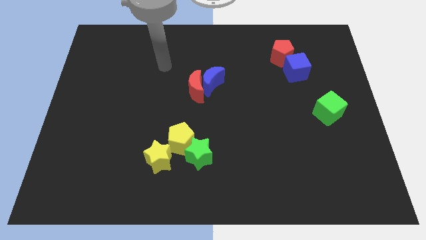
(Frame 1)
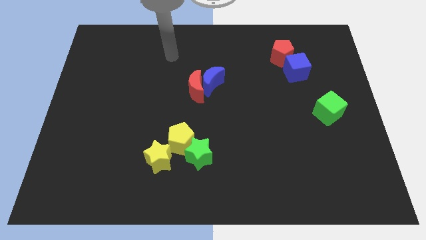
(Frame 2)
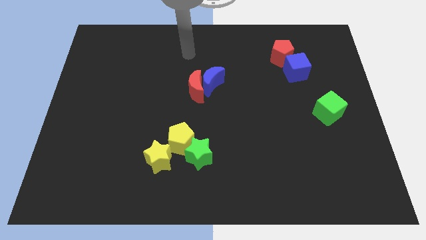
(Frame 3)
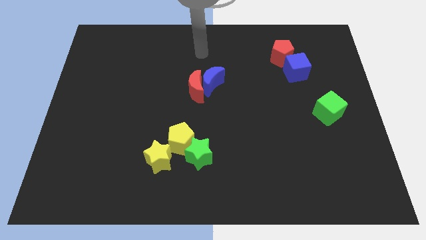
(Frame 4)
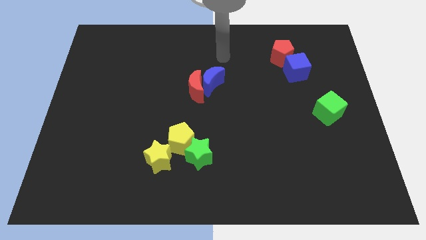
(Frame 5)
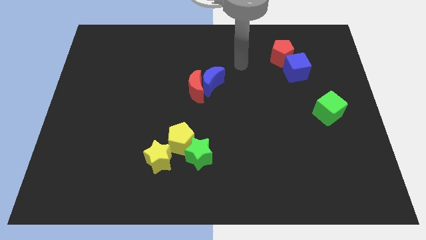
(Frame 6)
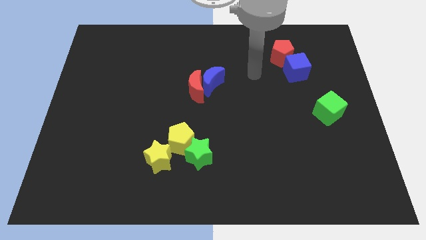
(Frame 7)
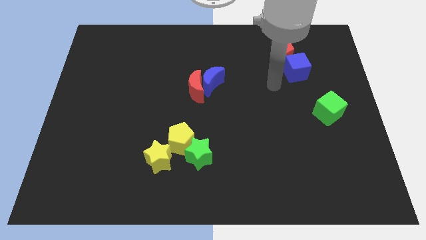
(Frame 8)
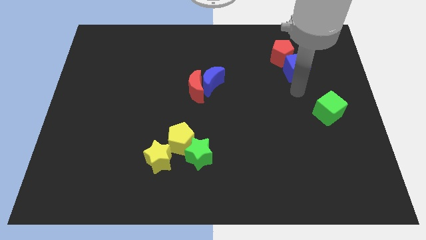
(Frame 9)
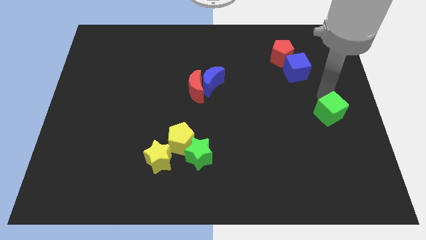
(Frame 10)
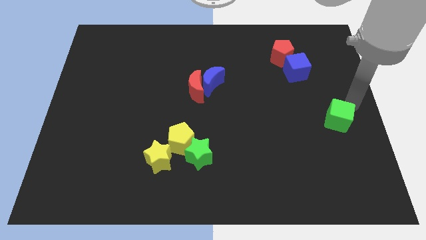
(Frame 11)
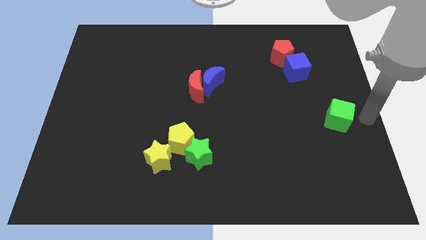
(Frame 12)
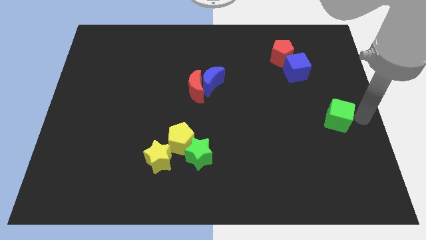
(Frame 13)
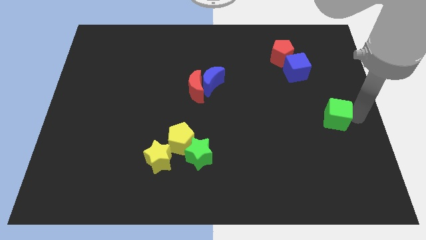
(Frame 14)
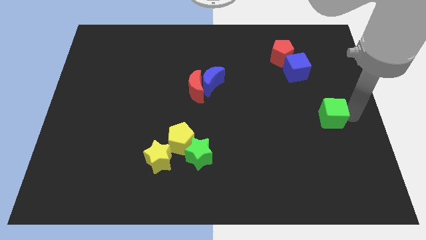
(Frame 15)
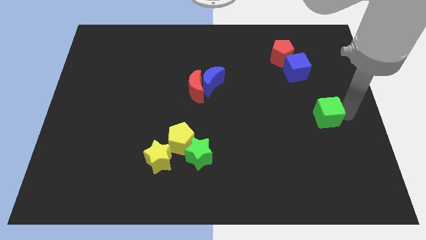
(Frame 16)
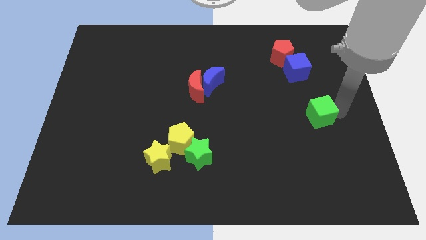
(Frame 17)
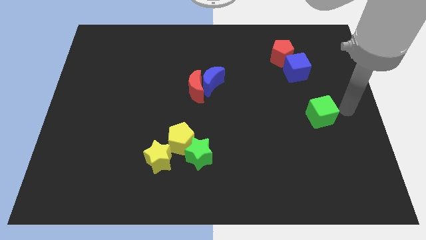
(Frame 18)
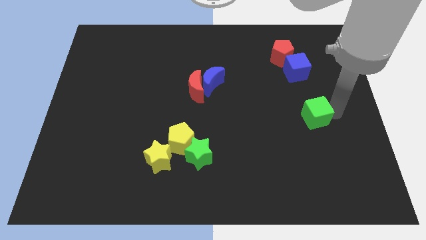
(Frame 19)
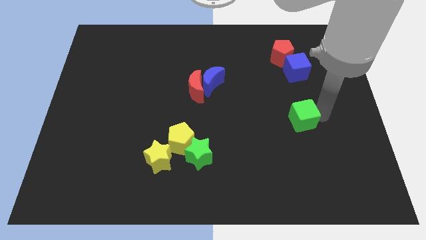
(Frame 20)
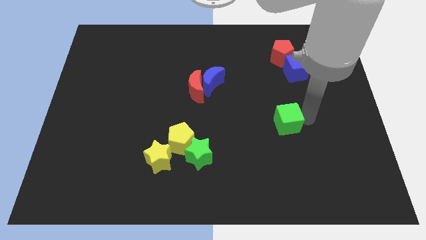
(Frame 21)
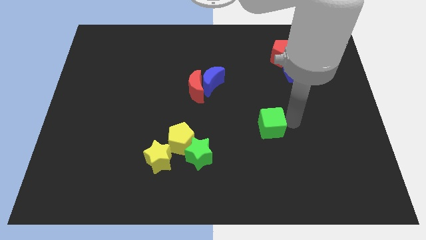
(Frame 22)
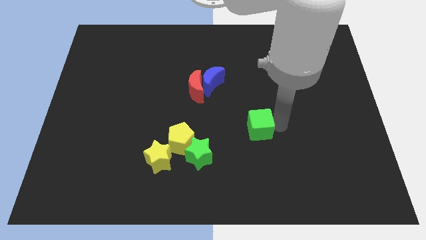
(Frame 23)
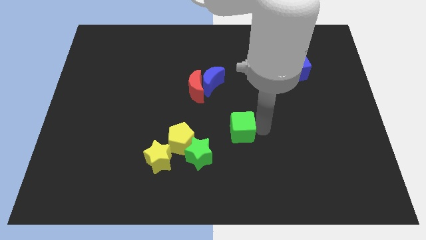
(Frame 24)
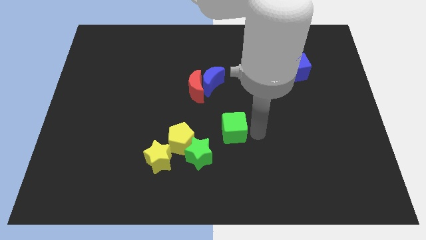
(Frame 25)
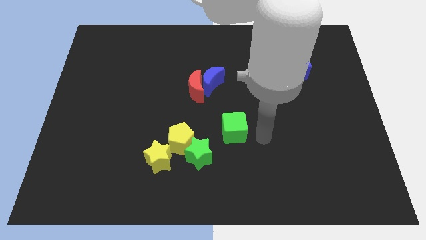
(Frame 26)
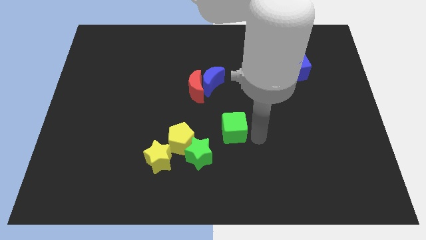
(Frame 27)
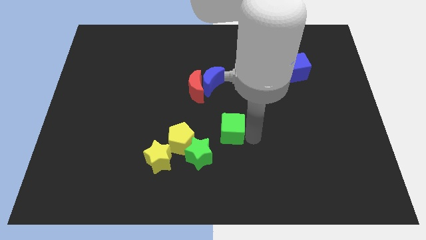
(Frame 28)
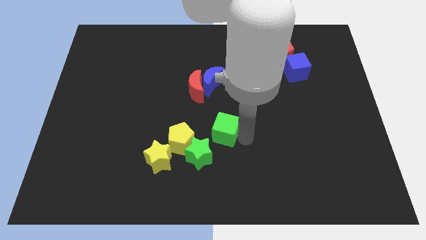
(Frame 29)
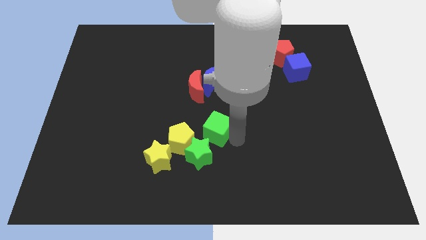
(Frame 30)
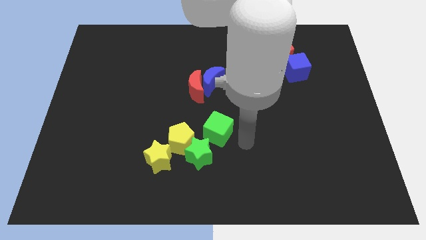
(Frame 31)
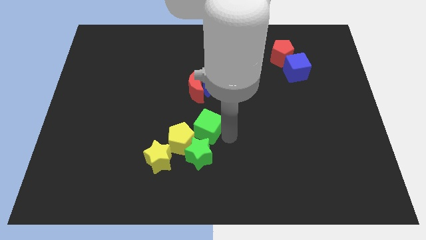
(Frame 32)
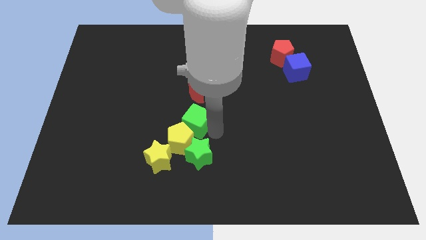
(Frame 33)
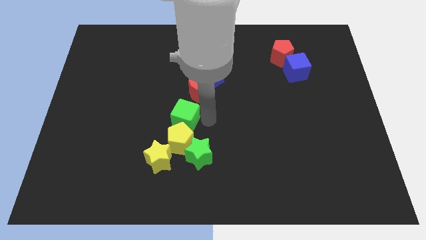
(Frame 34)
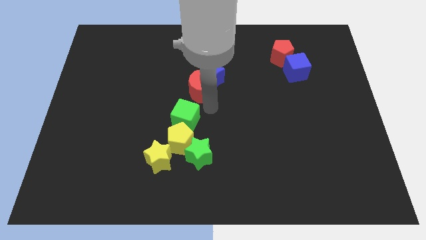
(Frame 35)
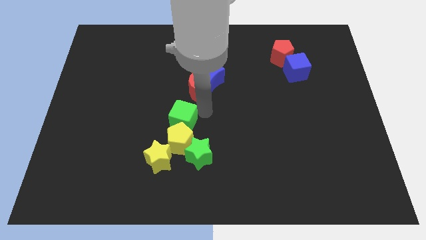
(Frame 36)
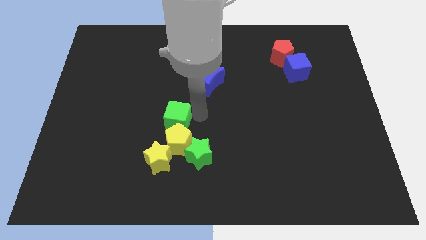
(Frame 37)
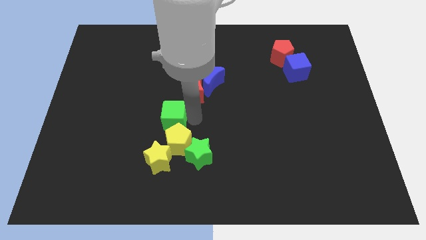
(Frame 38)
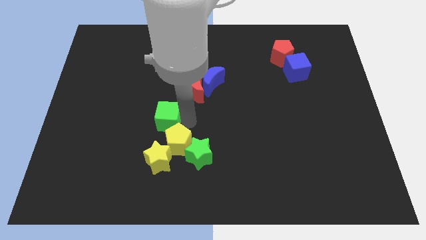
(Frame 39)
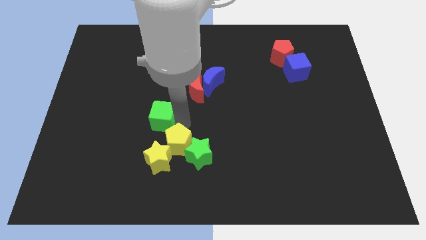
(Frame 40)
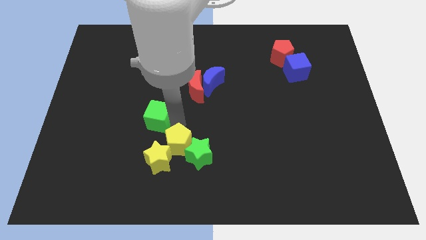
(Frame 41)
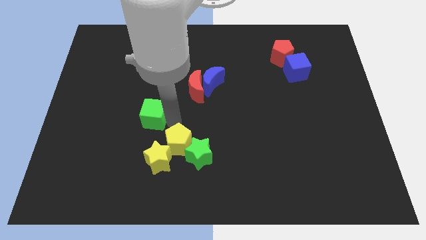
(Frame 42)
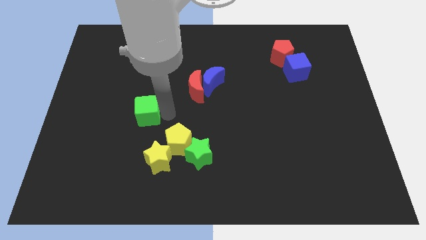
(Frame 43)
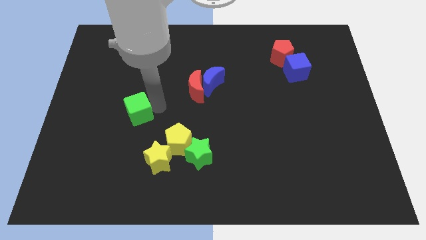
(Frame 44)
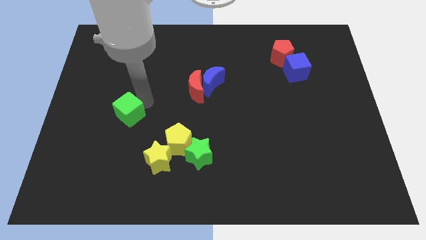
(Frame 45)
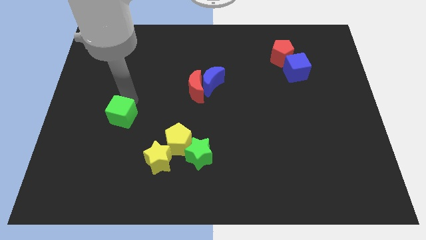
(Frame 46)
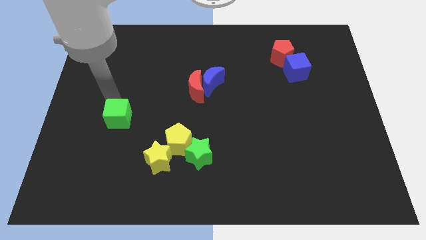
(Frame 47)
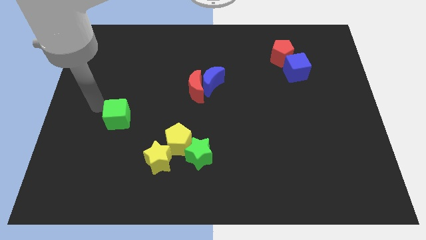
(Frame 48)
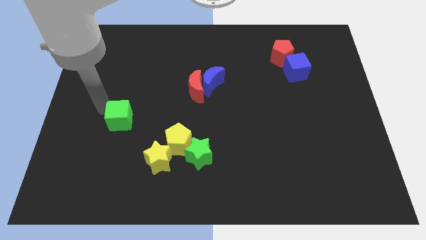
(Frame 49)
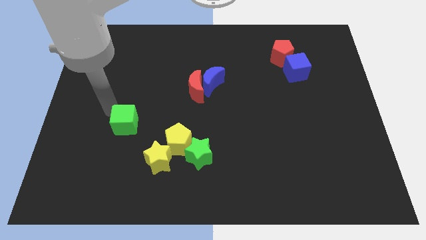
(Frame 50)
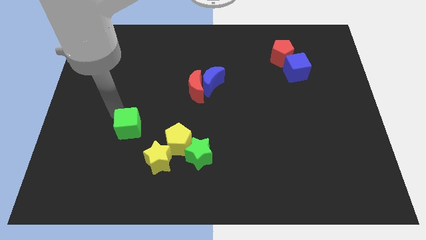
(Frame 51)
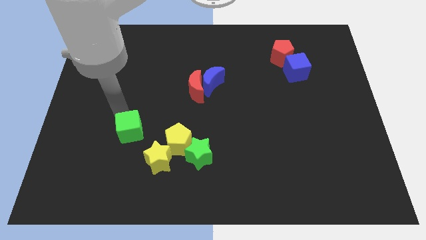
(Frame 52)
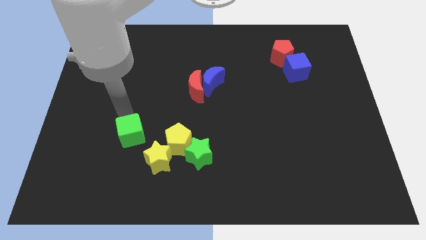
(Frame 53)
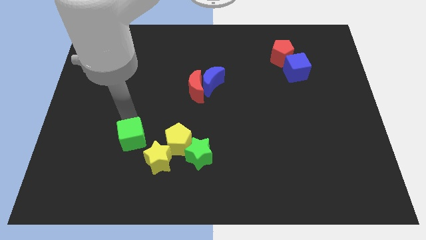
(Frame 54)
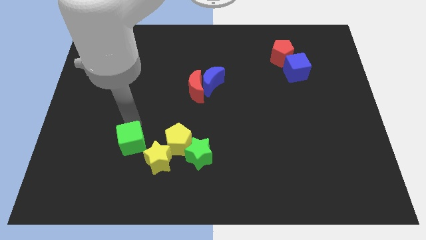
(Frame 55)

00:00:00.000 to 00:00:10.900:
put the green cube just left of the green star
